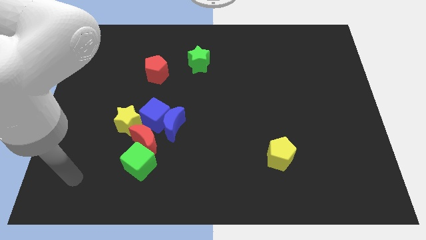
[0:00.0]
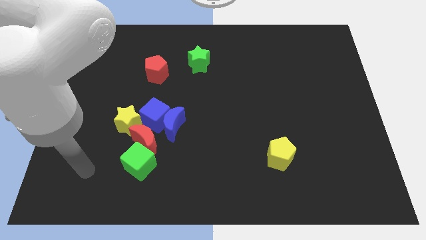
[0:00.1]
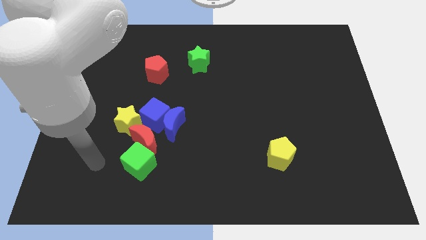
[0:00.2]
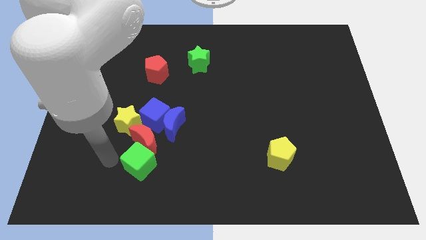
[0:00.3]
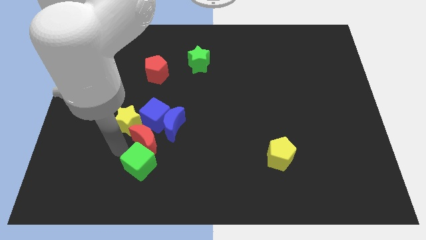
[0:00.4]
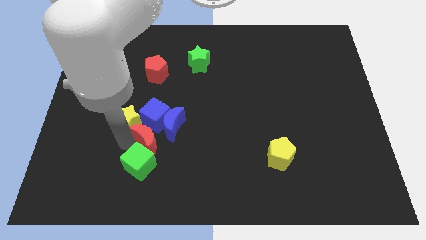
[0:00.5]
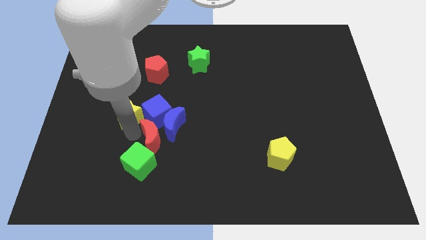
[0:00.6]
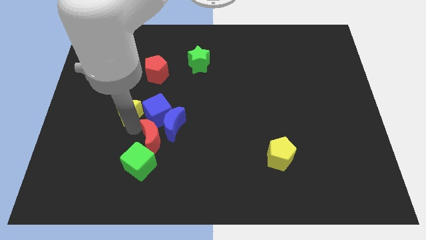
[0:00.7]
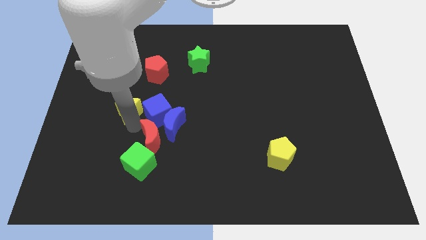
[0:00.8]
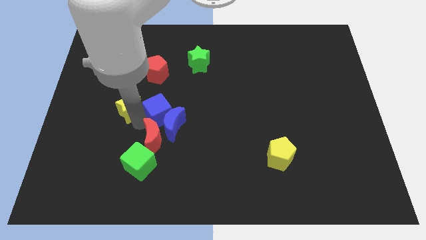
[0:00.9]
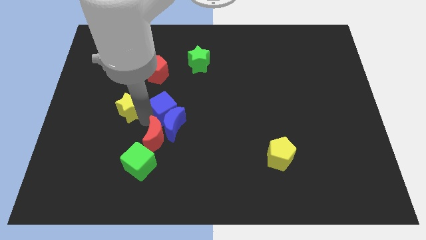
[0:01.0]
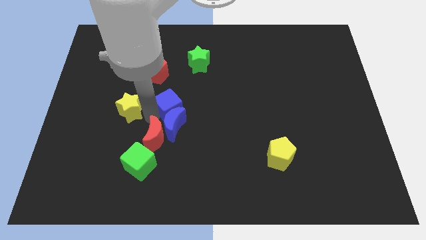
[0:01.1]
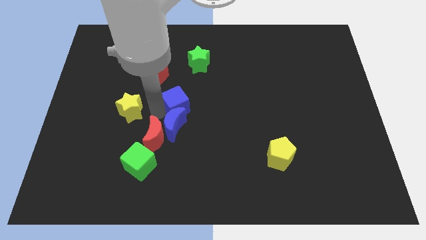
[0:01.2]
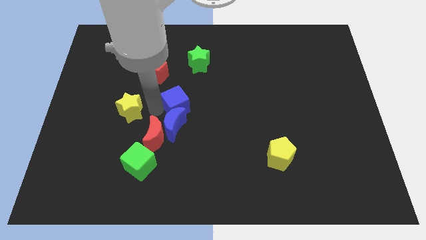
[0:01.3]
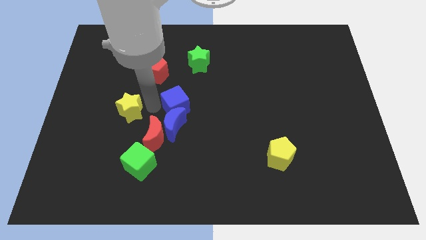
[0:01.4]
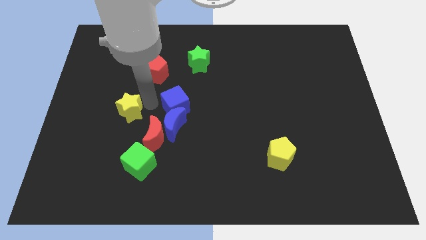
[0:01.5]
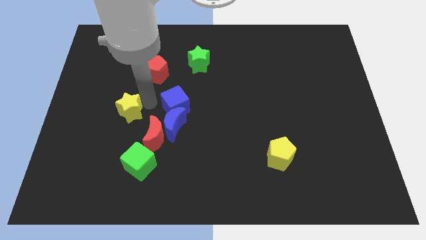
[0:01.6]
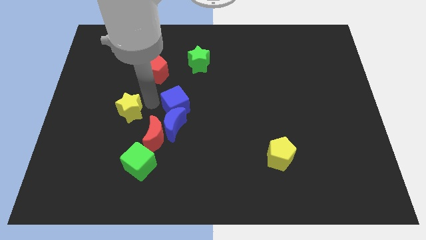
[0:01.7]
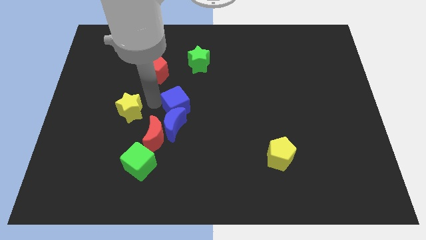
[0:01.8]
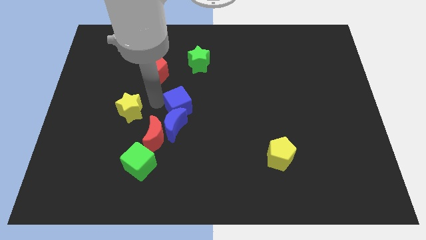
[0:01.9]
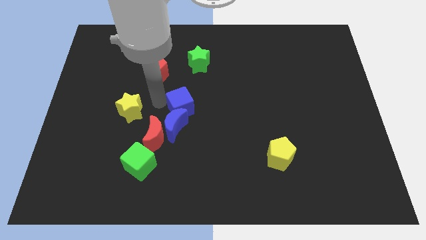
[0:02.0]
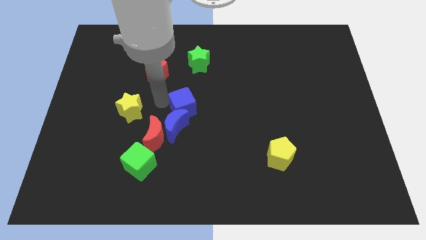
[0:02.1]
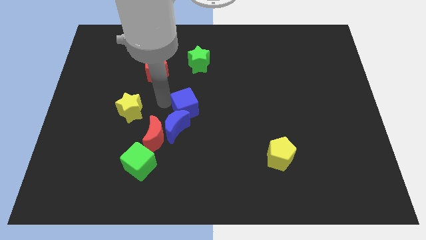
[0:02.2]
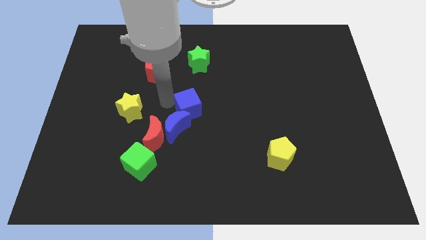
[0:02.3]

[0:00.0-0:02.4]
slide the blue cube right slightly

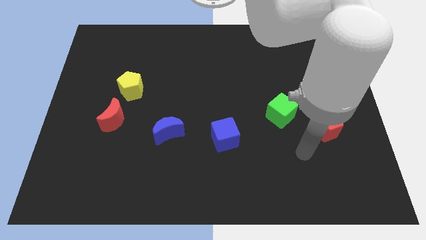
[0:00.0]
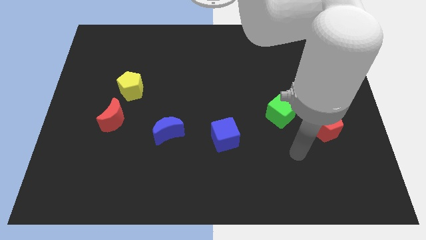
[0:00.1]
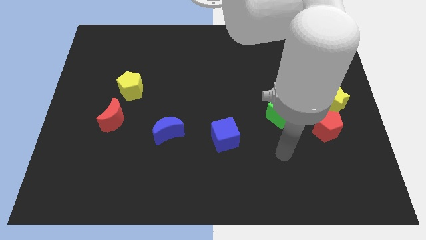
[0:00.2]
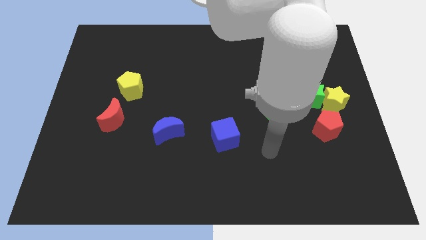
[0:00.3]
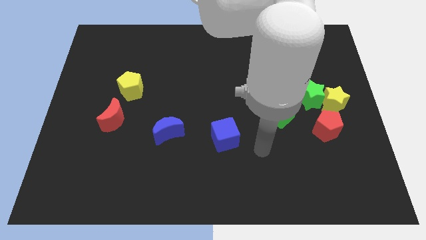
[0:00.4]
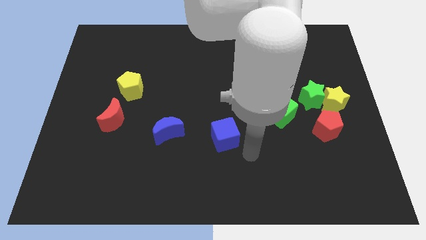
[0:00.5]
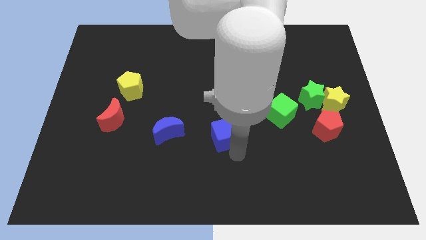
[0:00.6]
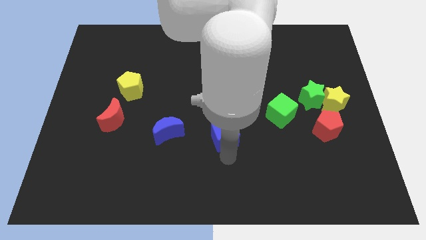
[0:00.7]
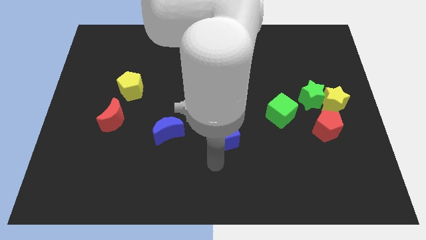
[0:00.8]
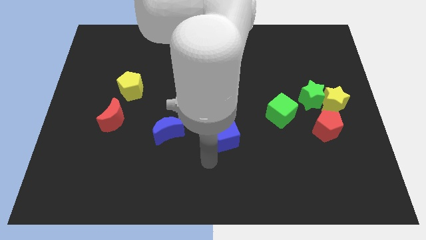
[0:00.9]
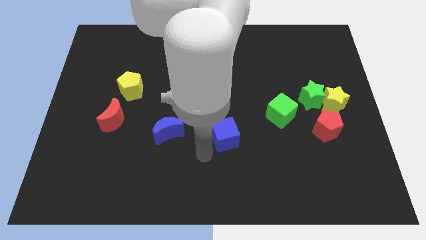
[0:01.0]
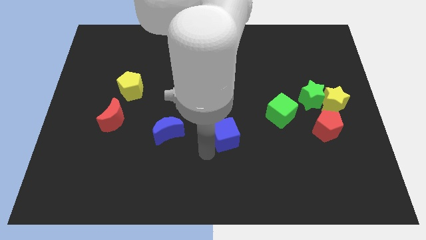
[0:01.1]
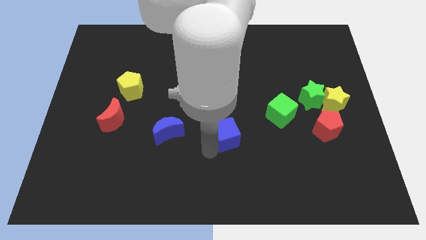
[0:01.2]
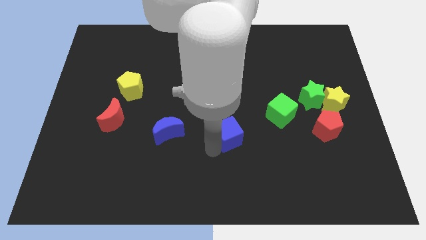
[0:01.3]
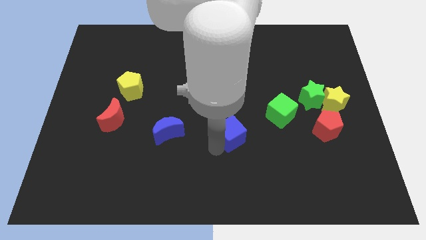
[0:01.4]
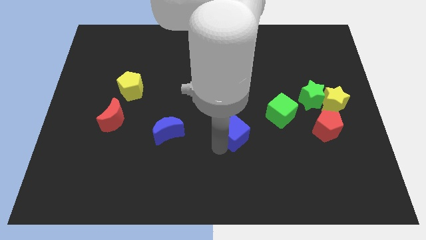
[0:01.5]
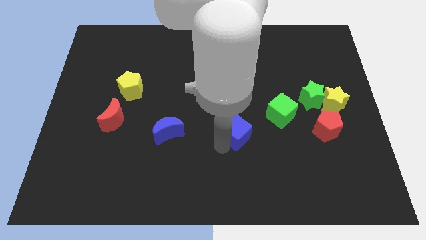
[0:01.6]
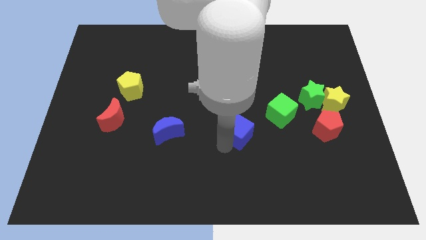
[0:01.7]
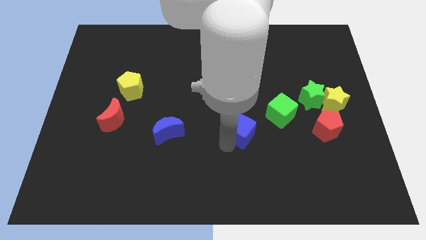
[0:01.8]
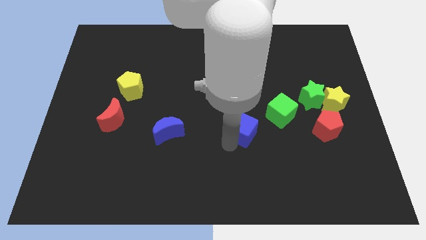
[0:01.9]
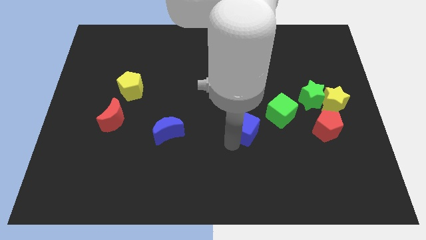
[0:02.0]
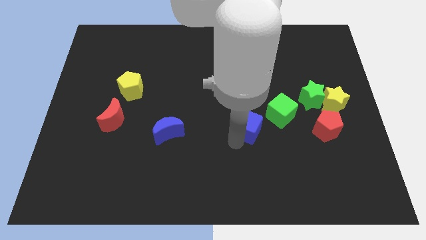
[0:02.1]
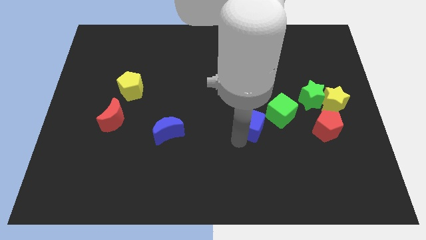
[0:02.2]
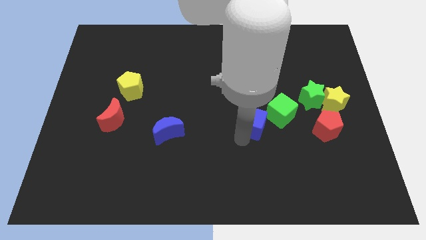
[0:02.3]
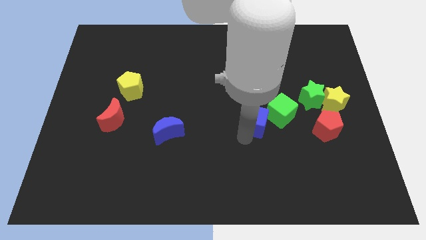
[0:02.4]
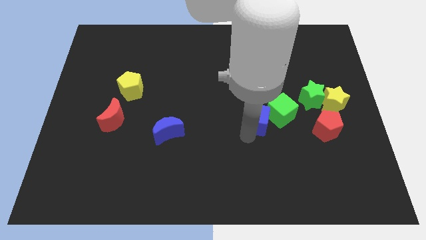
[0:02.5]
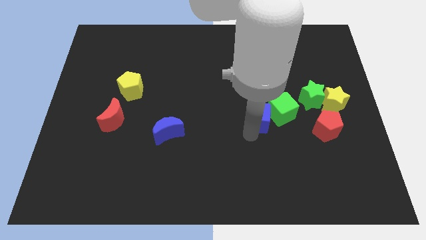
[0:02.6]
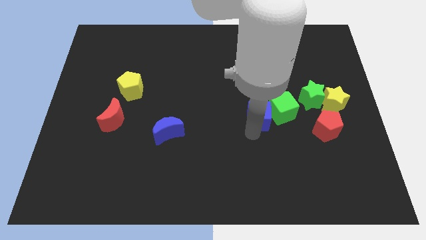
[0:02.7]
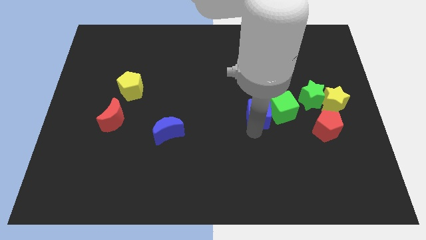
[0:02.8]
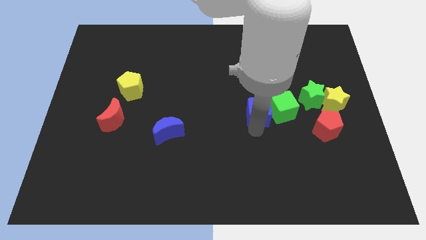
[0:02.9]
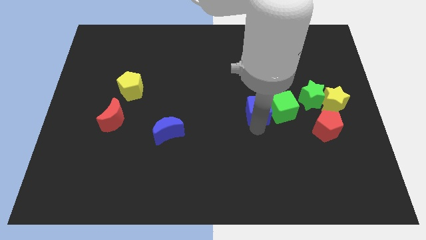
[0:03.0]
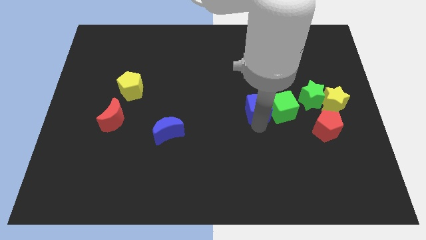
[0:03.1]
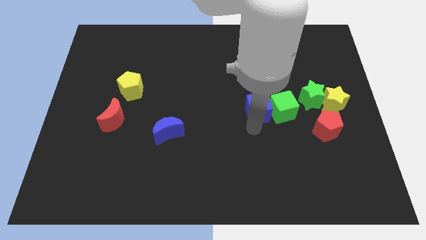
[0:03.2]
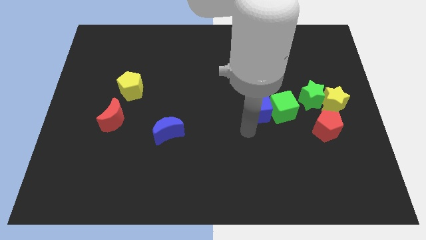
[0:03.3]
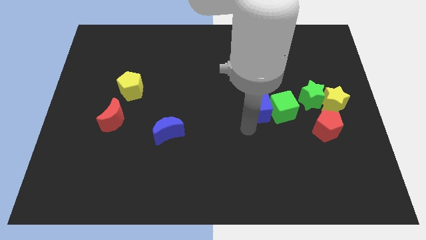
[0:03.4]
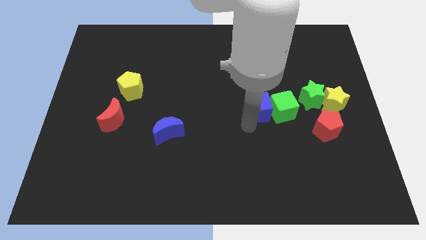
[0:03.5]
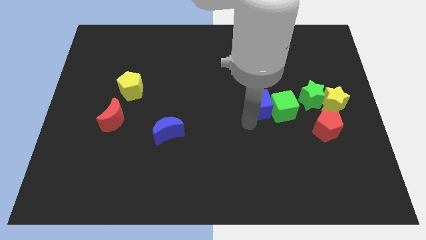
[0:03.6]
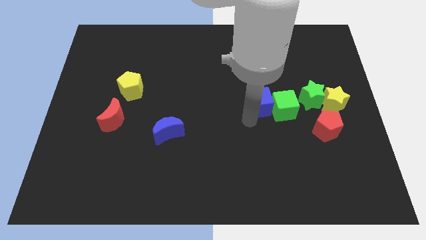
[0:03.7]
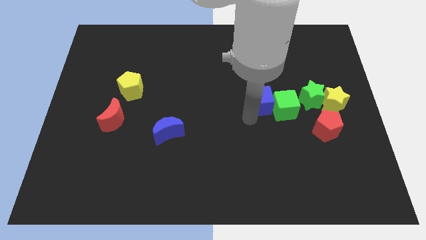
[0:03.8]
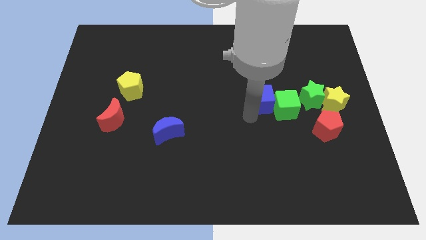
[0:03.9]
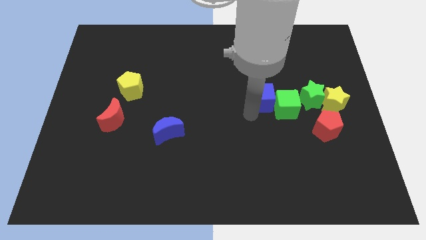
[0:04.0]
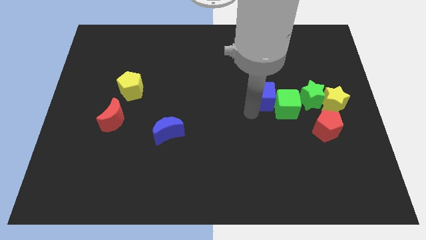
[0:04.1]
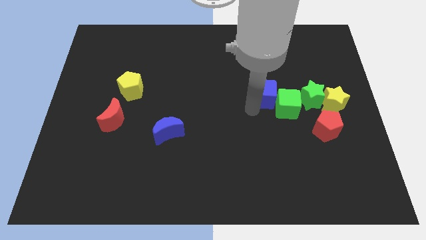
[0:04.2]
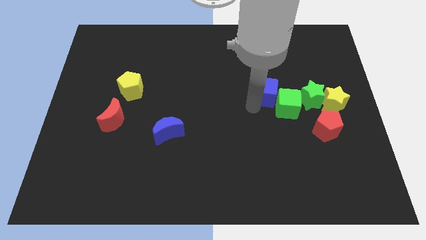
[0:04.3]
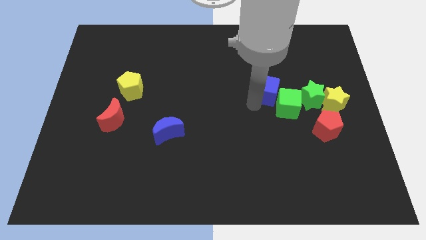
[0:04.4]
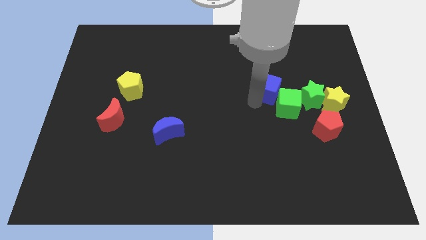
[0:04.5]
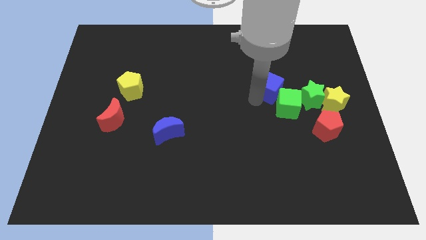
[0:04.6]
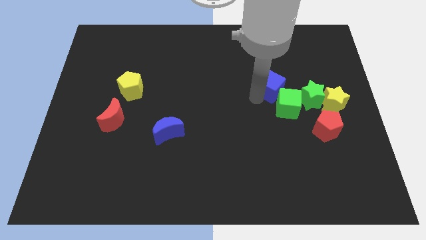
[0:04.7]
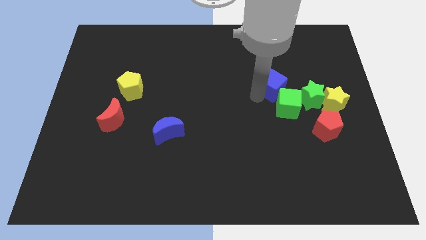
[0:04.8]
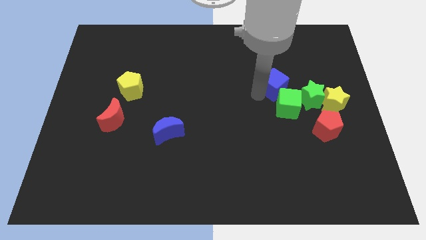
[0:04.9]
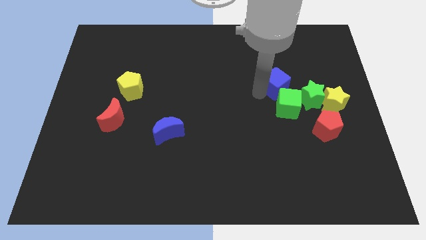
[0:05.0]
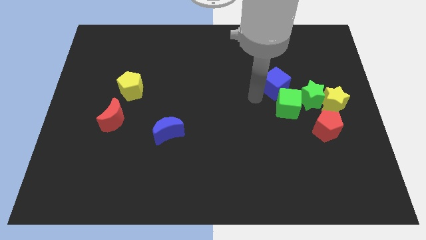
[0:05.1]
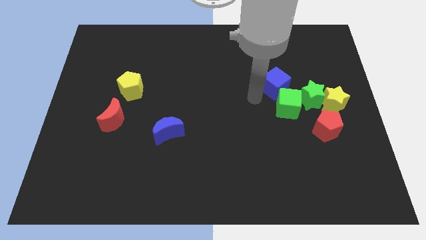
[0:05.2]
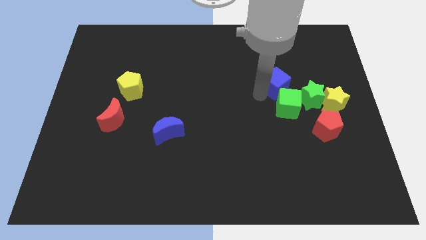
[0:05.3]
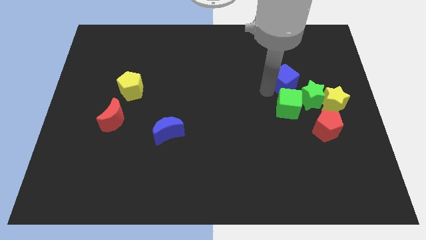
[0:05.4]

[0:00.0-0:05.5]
move the blue cube upwards and to the right diagonally

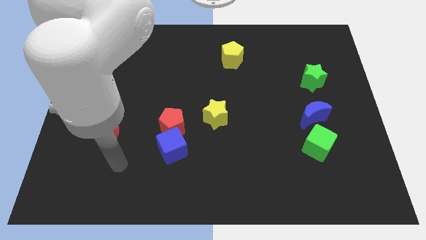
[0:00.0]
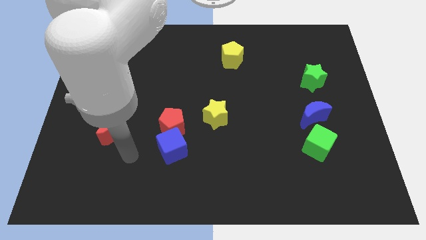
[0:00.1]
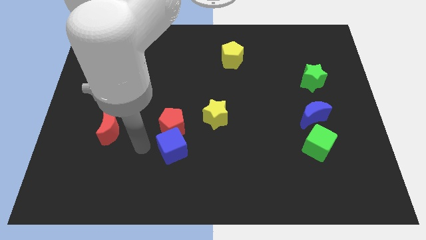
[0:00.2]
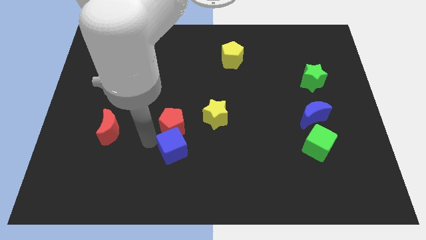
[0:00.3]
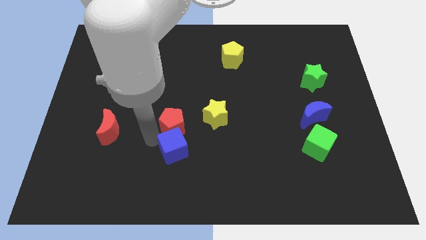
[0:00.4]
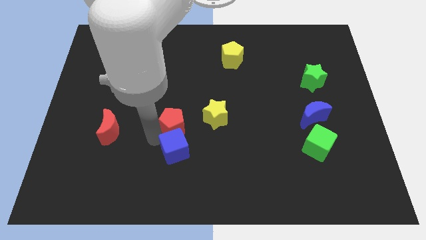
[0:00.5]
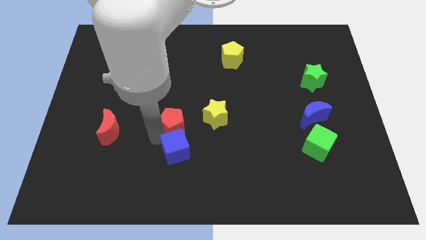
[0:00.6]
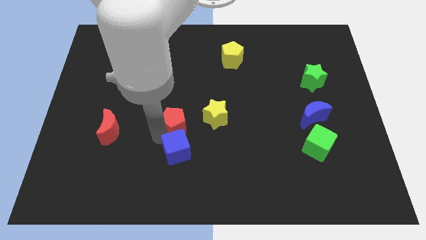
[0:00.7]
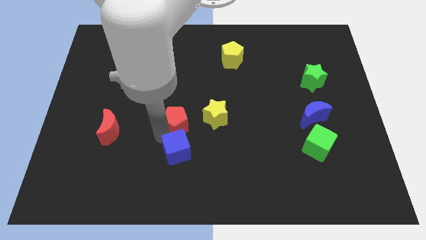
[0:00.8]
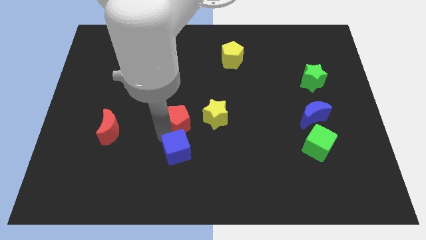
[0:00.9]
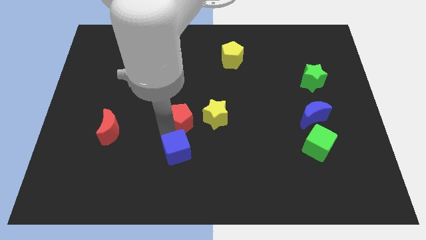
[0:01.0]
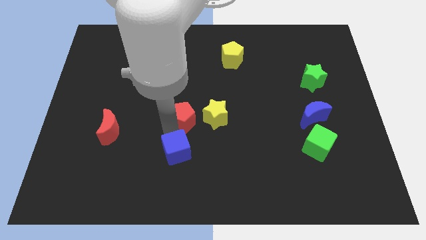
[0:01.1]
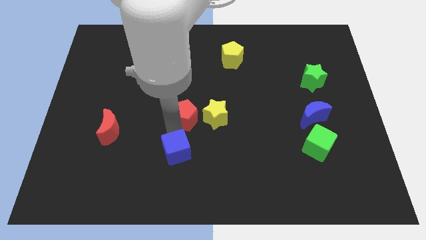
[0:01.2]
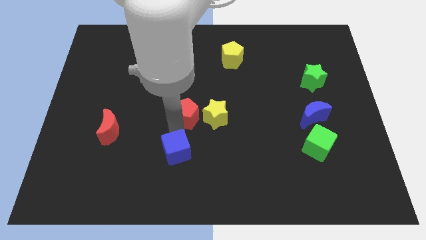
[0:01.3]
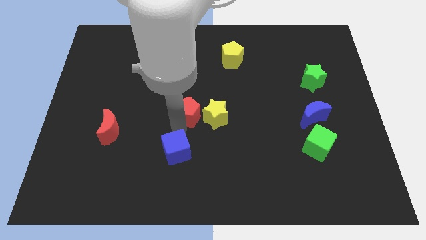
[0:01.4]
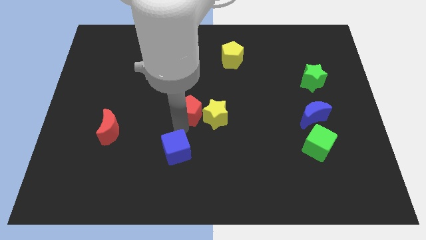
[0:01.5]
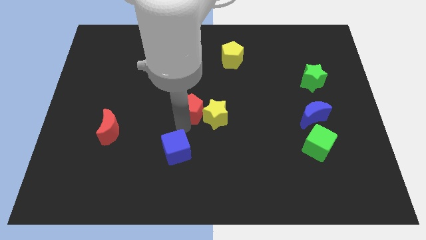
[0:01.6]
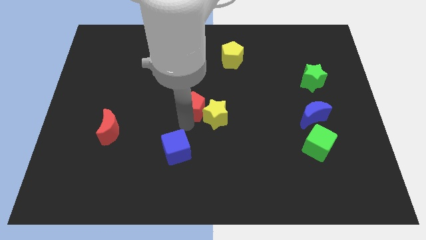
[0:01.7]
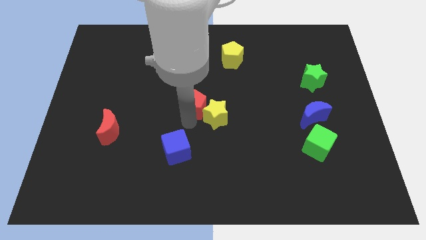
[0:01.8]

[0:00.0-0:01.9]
push the red pentagon diagonally up and to the right a bit
